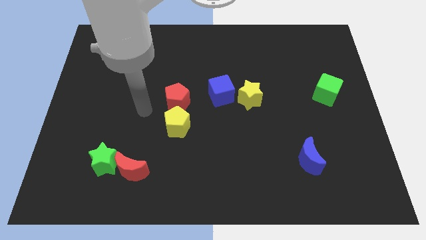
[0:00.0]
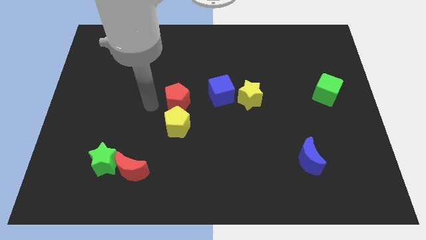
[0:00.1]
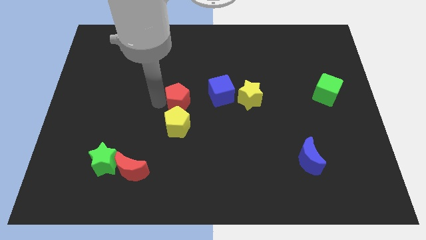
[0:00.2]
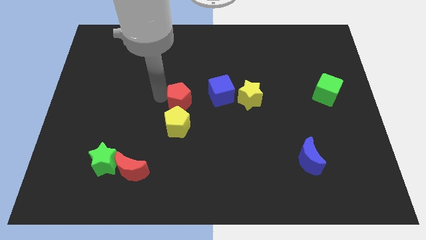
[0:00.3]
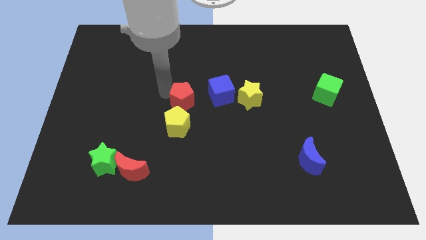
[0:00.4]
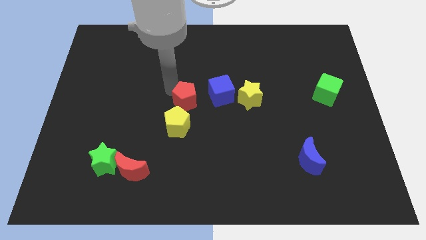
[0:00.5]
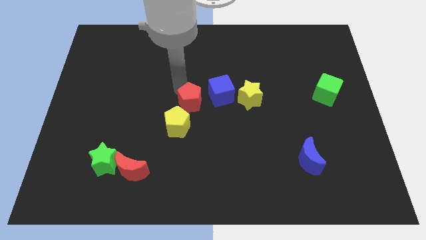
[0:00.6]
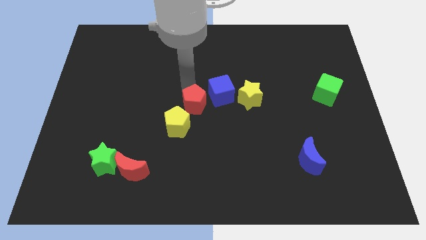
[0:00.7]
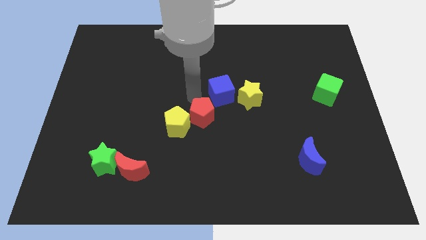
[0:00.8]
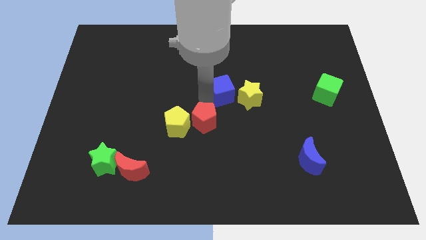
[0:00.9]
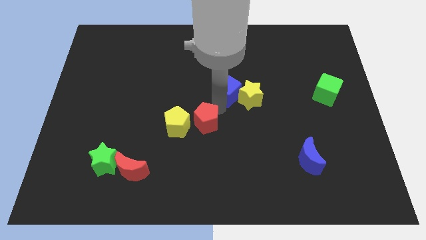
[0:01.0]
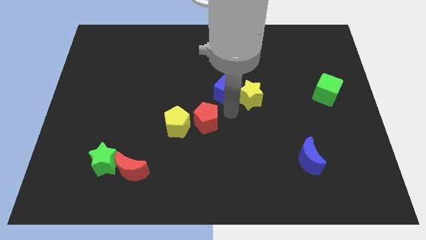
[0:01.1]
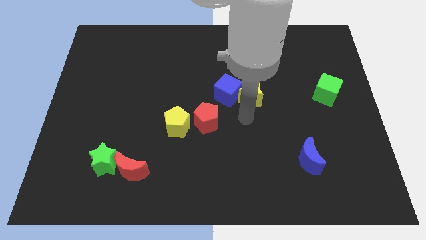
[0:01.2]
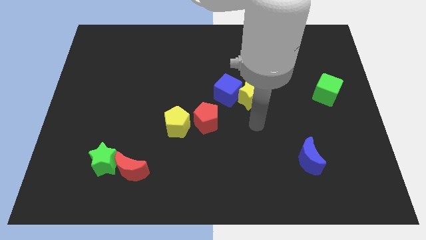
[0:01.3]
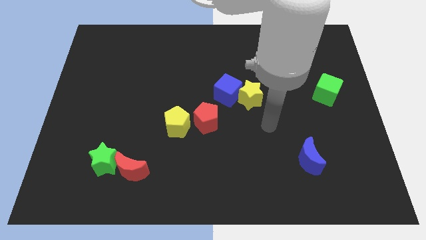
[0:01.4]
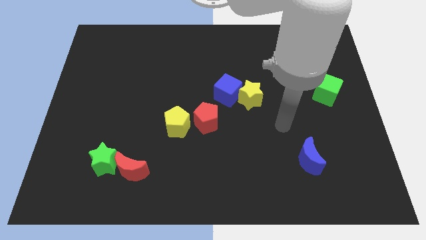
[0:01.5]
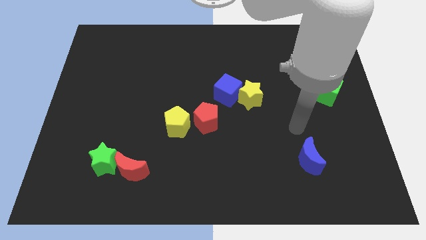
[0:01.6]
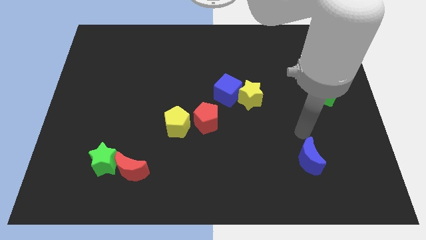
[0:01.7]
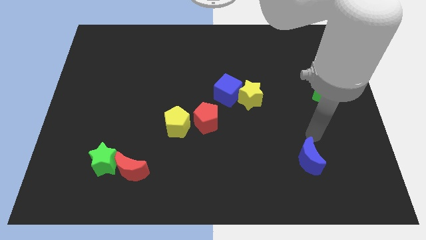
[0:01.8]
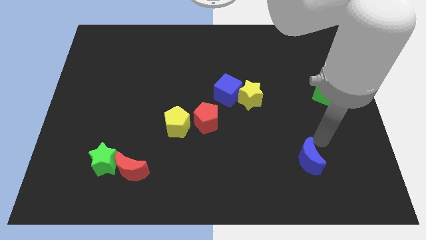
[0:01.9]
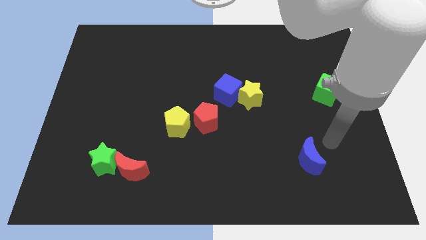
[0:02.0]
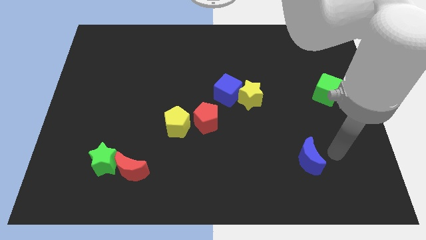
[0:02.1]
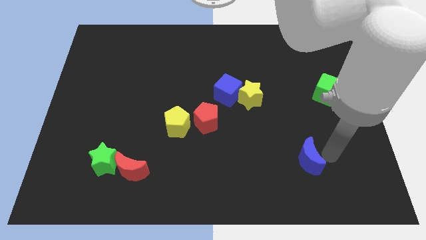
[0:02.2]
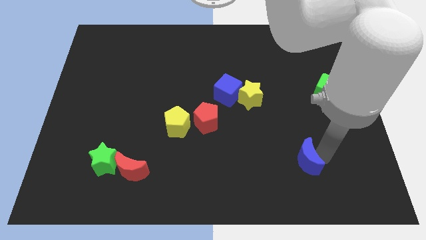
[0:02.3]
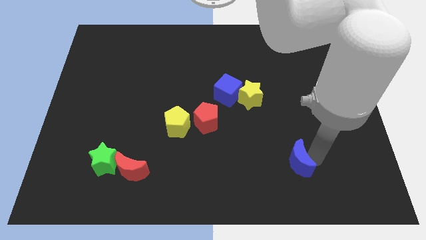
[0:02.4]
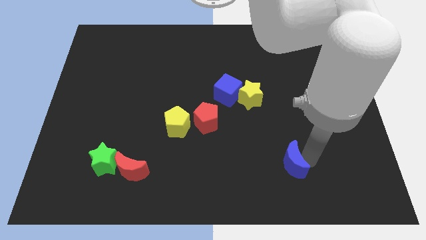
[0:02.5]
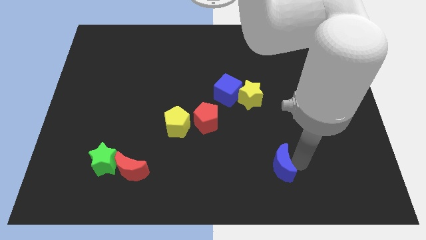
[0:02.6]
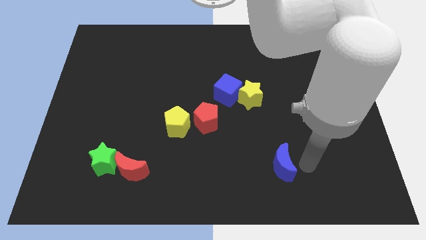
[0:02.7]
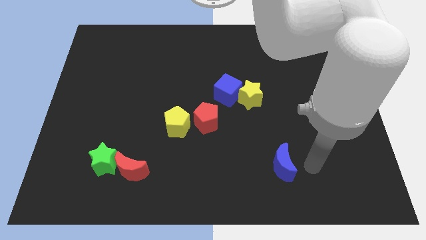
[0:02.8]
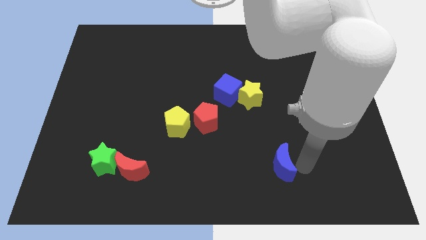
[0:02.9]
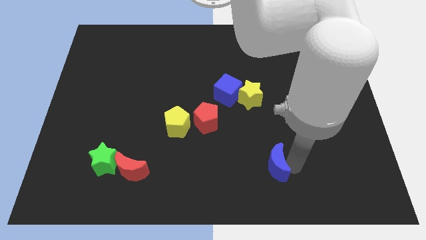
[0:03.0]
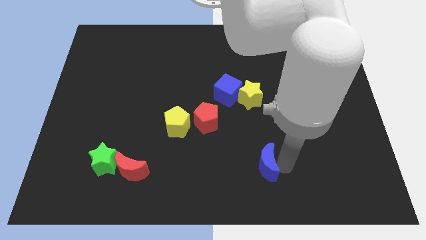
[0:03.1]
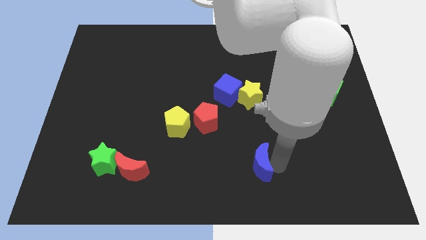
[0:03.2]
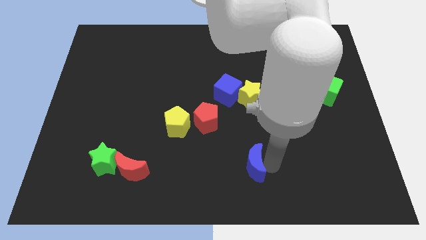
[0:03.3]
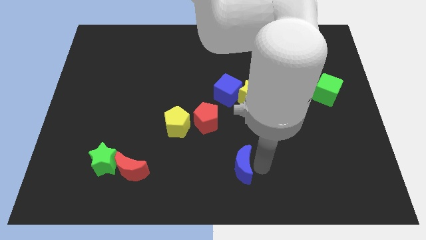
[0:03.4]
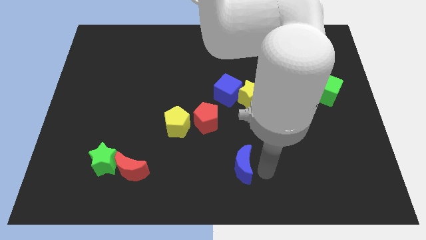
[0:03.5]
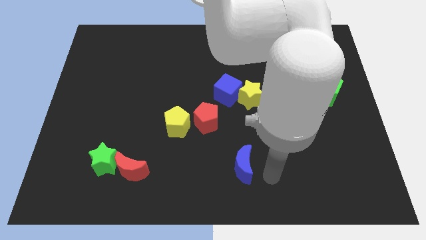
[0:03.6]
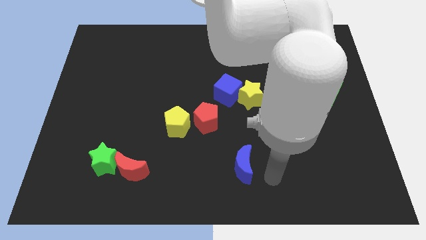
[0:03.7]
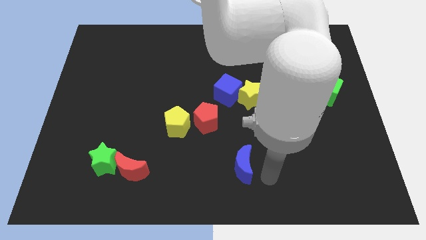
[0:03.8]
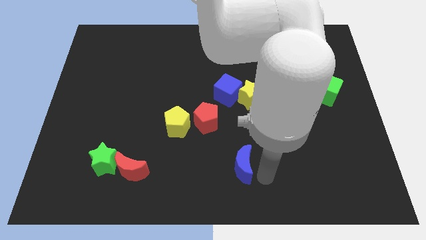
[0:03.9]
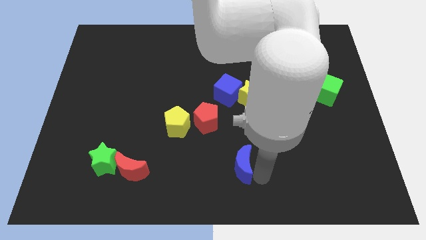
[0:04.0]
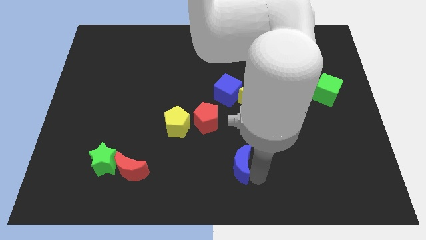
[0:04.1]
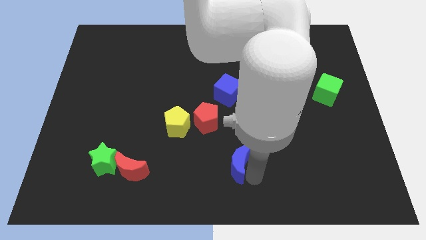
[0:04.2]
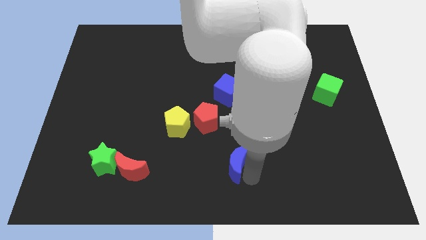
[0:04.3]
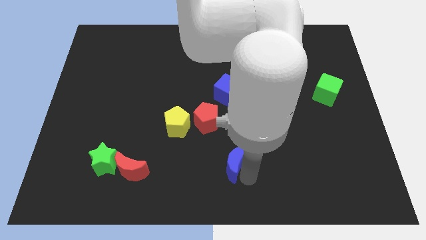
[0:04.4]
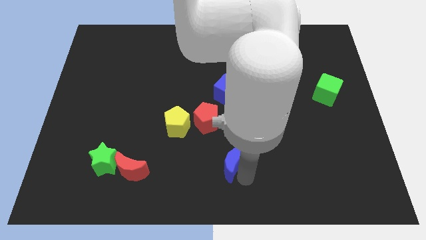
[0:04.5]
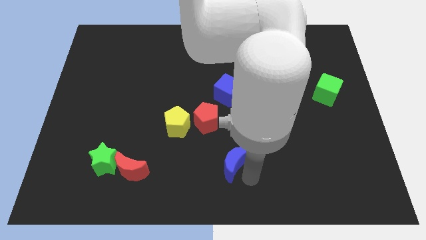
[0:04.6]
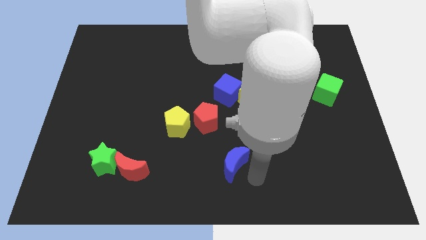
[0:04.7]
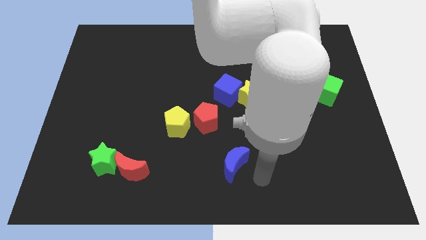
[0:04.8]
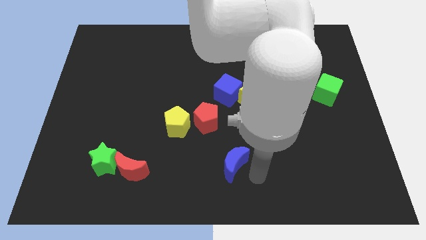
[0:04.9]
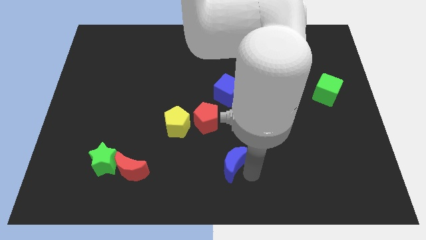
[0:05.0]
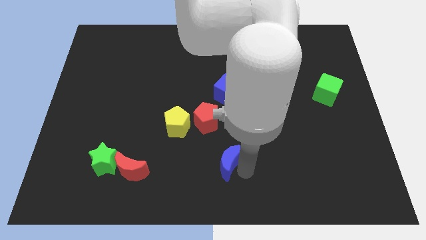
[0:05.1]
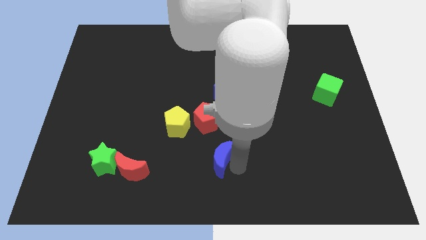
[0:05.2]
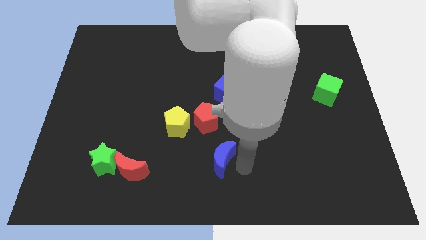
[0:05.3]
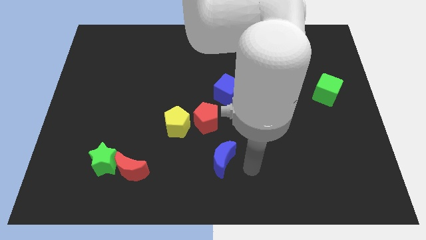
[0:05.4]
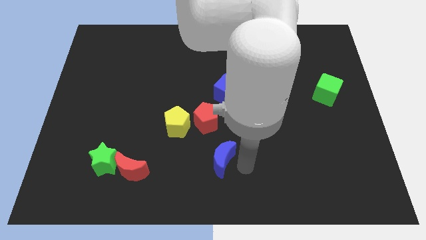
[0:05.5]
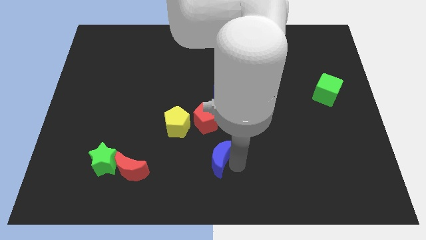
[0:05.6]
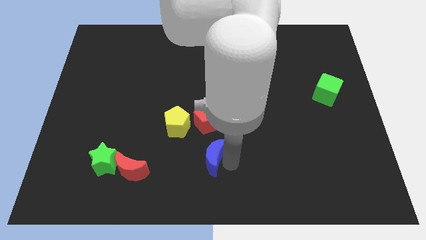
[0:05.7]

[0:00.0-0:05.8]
slide the blue moon left

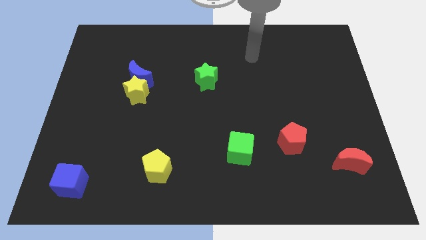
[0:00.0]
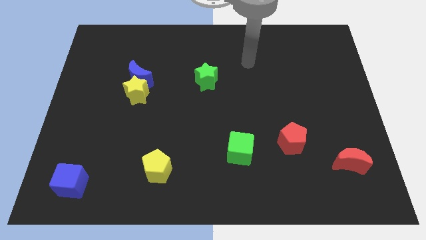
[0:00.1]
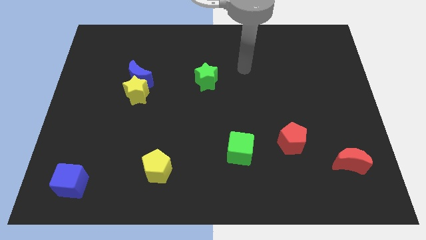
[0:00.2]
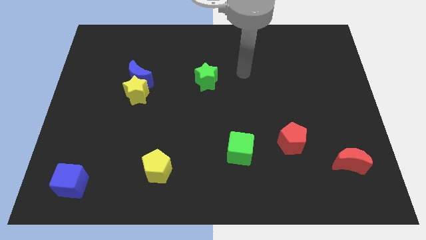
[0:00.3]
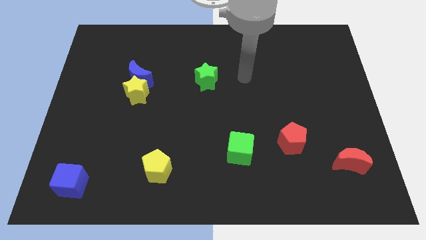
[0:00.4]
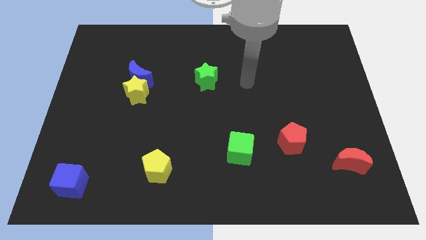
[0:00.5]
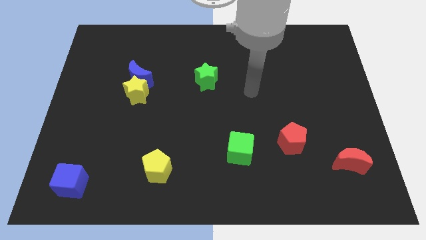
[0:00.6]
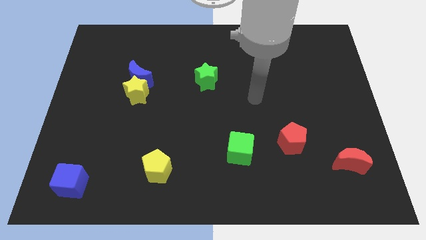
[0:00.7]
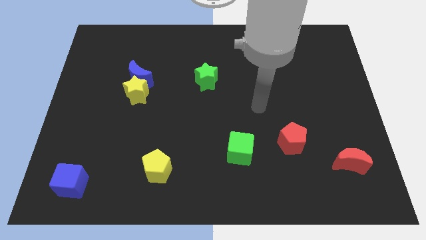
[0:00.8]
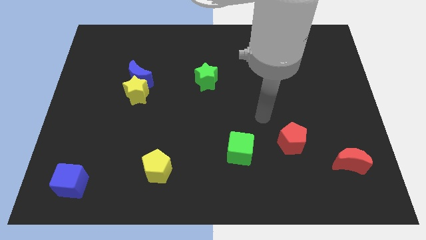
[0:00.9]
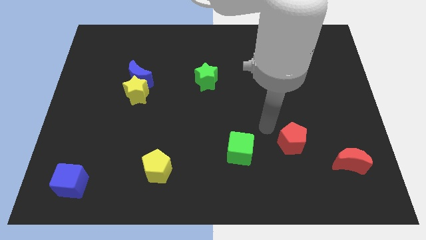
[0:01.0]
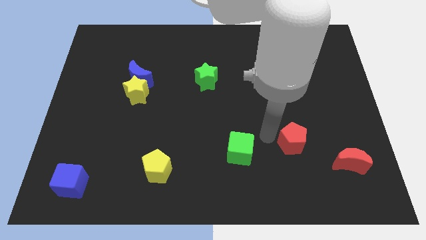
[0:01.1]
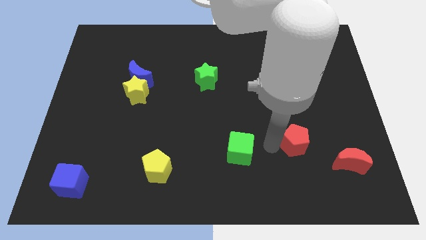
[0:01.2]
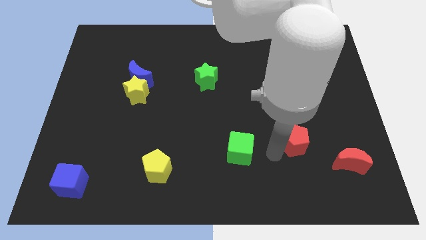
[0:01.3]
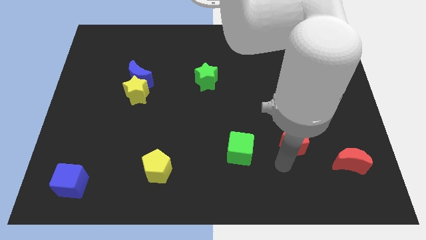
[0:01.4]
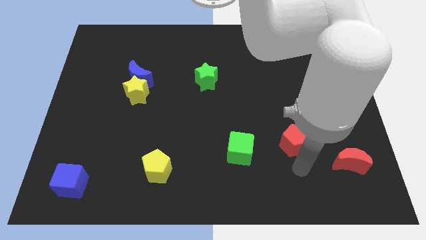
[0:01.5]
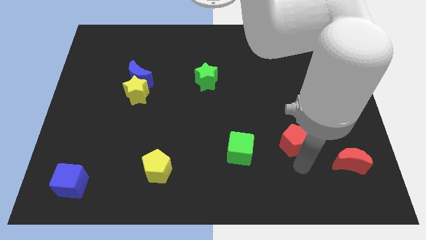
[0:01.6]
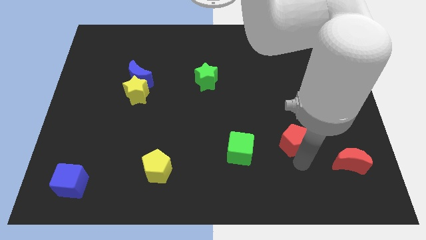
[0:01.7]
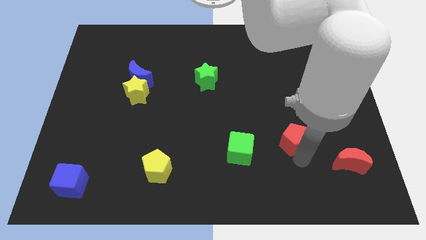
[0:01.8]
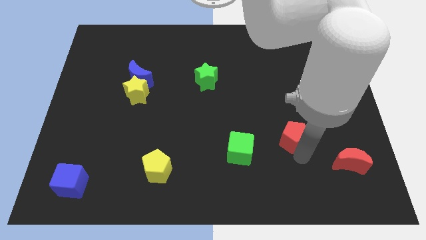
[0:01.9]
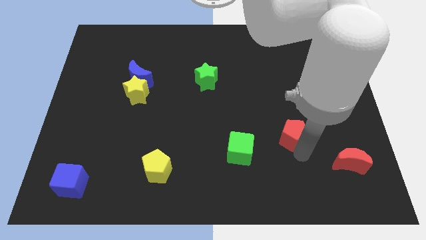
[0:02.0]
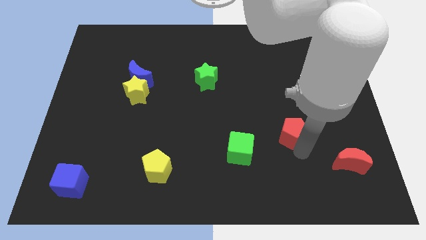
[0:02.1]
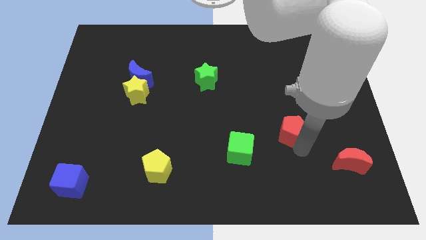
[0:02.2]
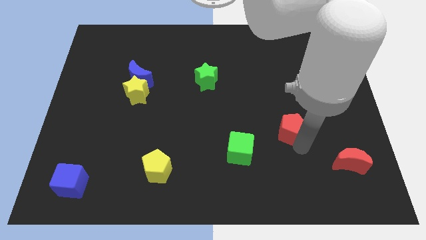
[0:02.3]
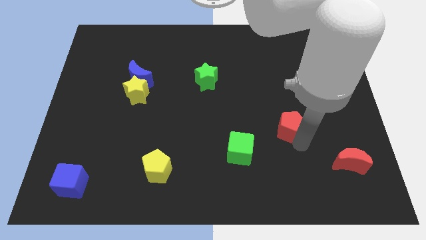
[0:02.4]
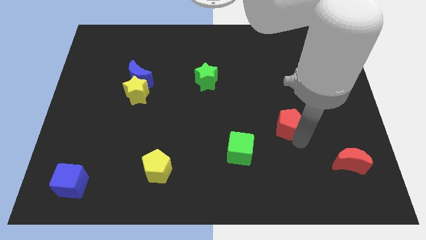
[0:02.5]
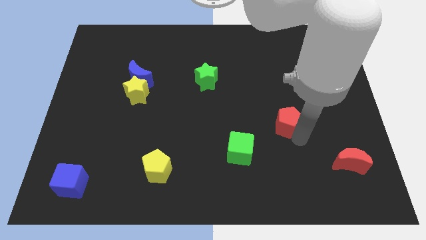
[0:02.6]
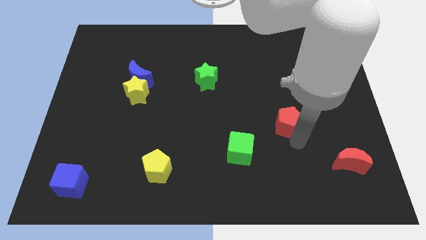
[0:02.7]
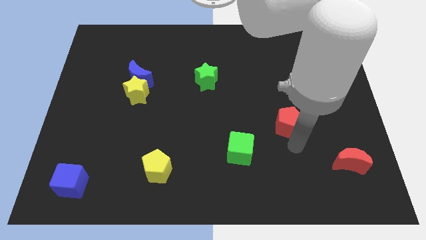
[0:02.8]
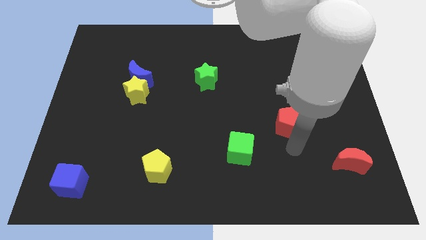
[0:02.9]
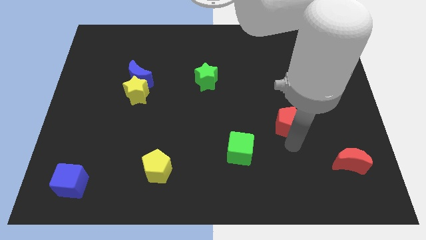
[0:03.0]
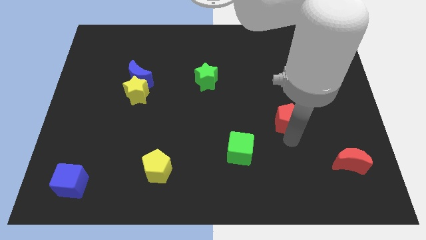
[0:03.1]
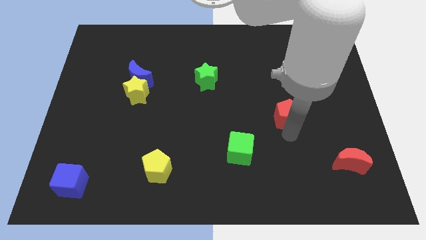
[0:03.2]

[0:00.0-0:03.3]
push the red pentagon slightly up
